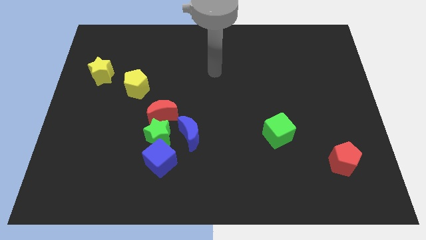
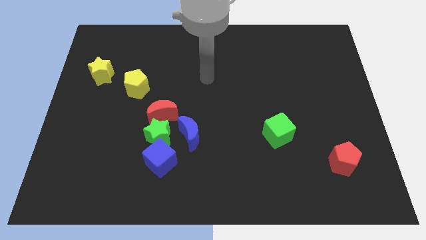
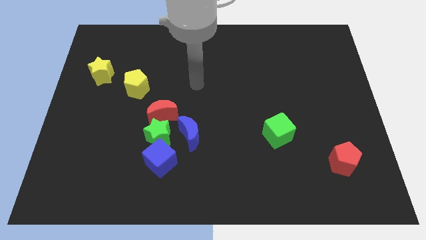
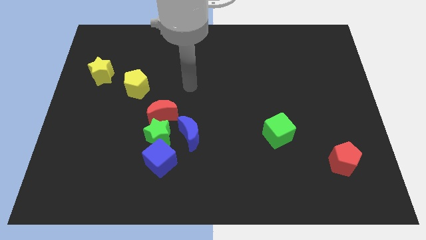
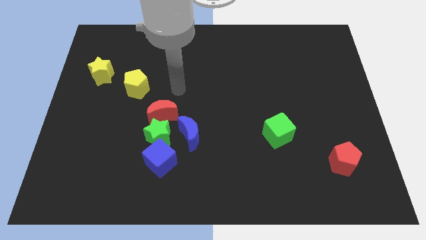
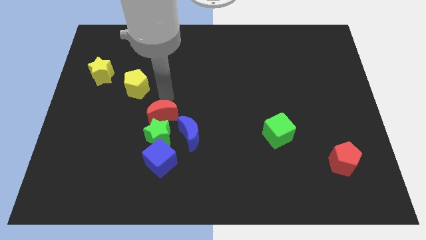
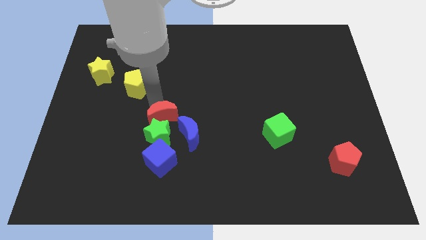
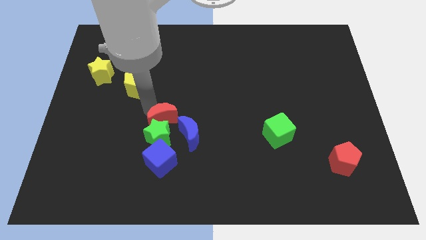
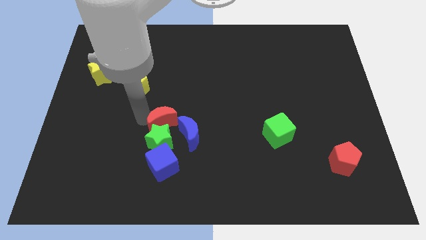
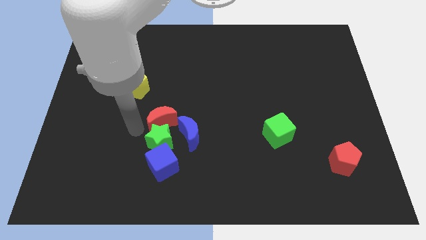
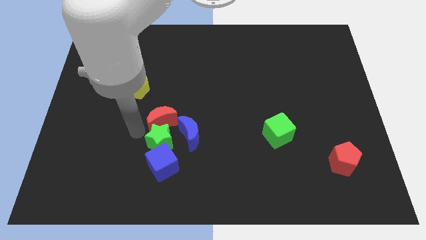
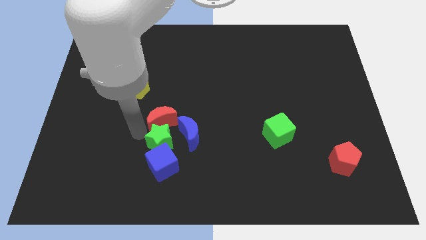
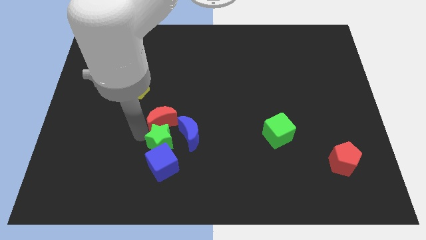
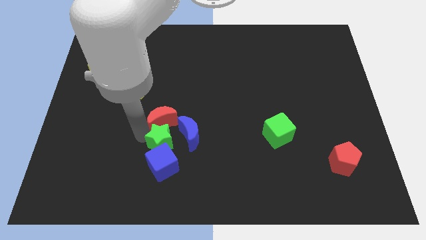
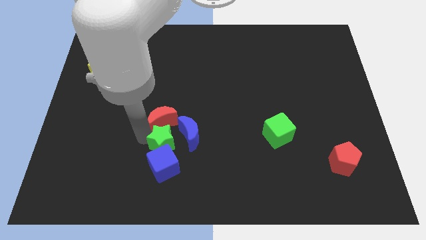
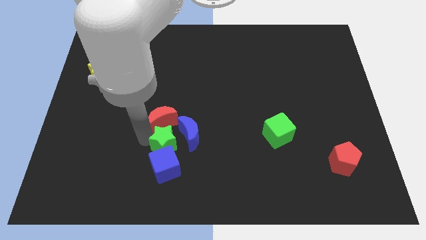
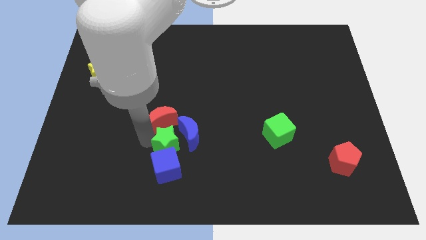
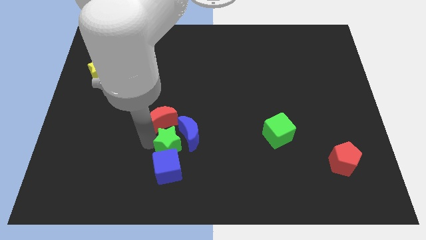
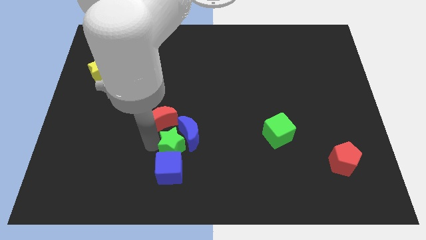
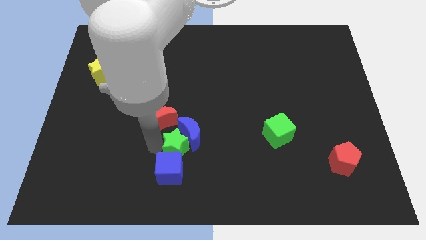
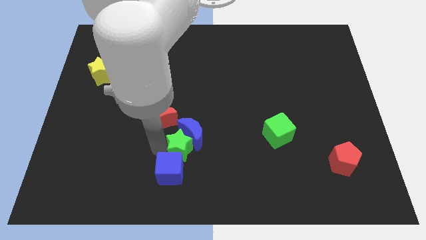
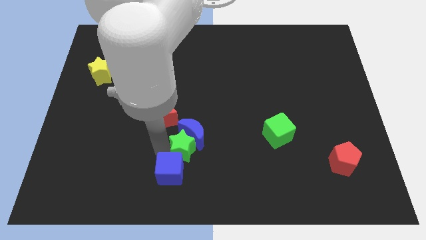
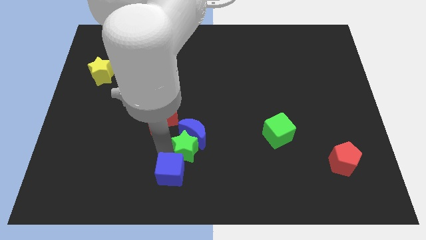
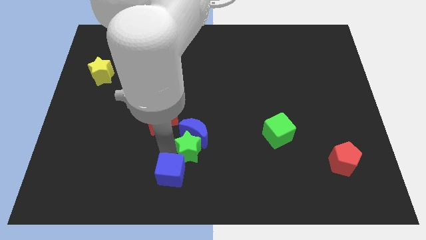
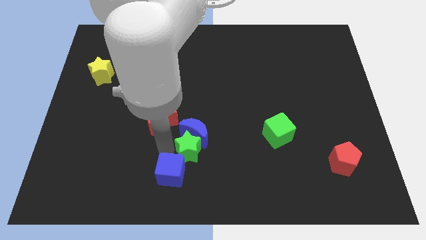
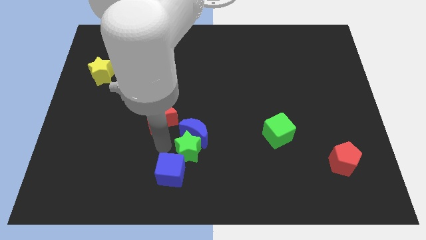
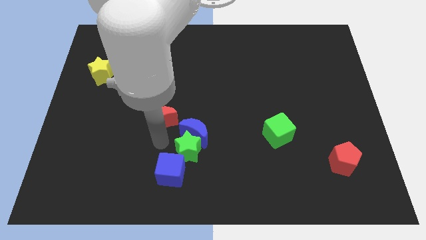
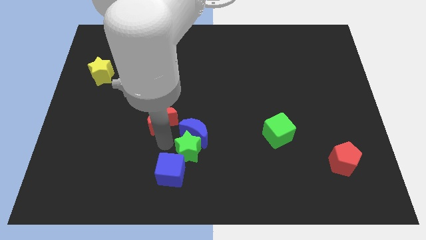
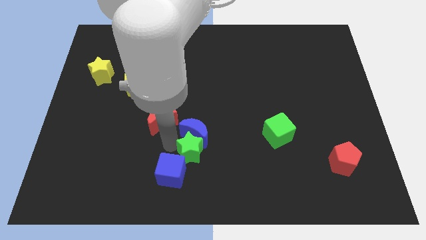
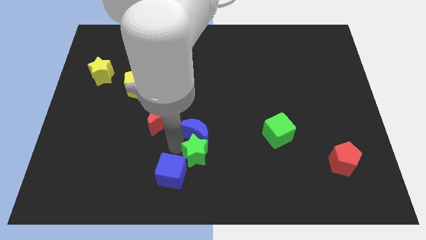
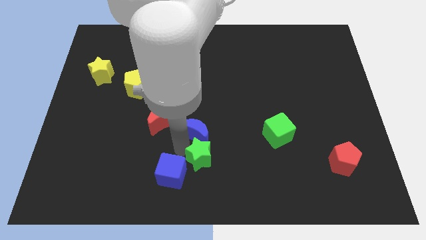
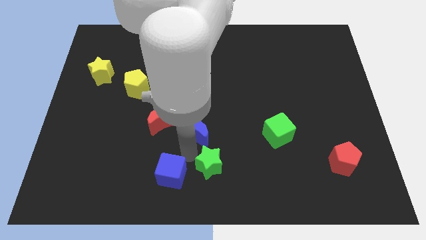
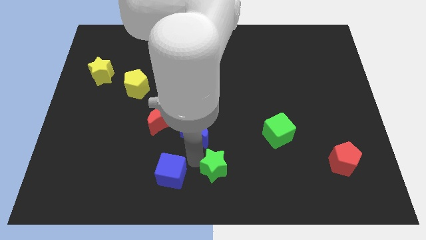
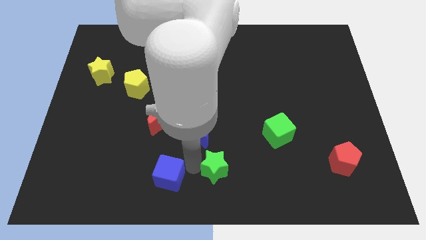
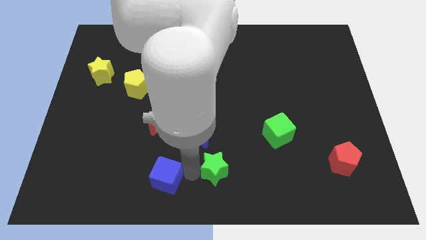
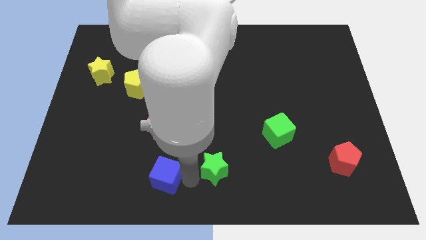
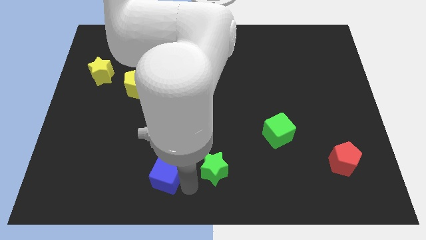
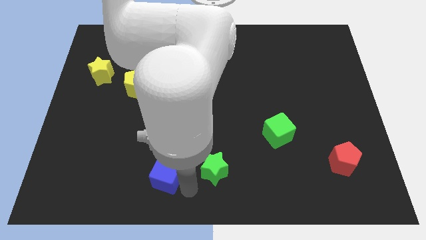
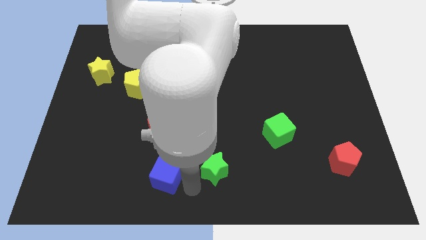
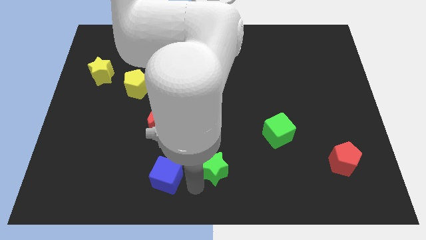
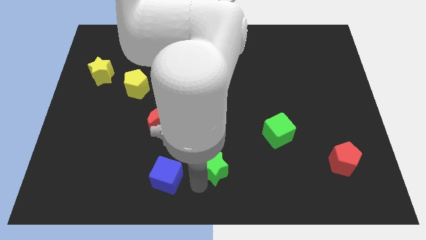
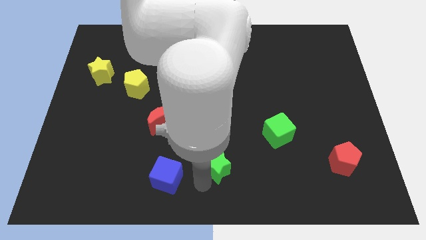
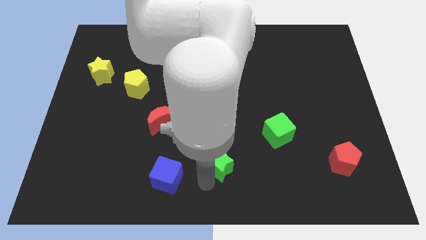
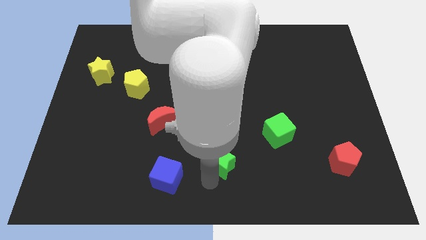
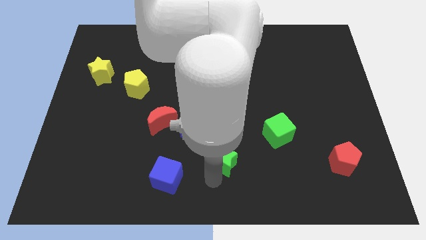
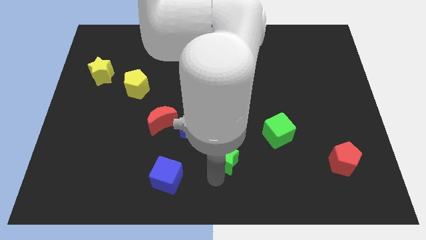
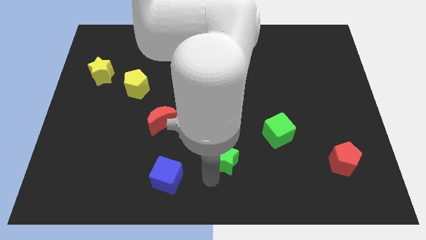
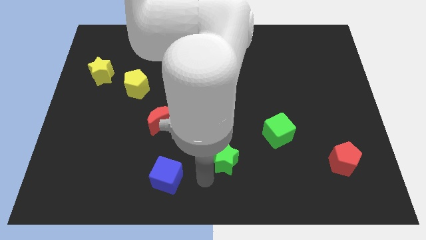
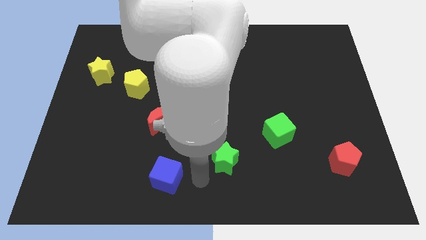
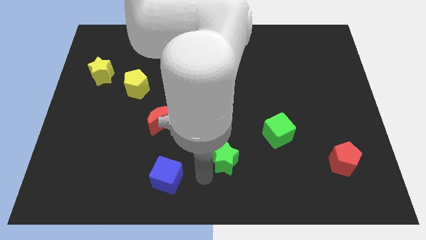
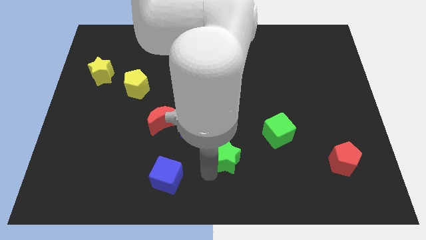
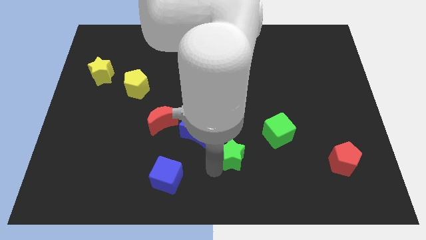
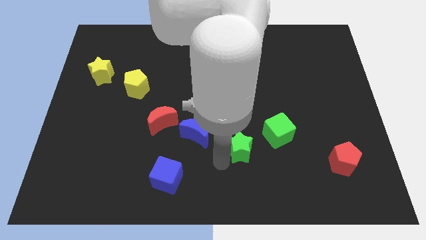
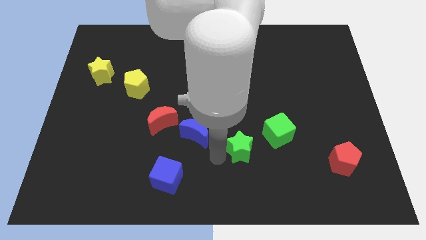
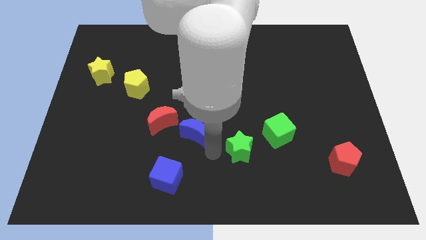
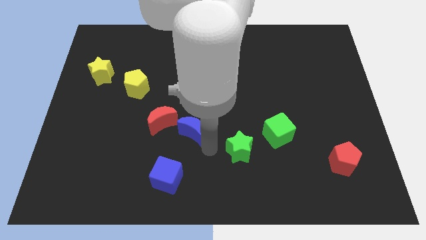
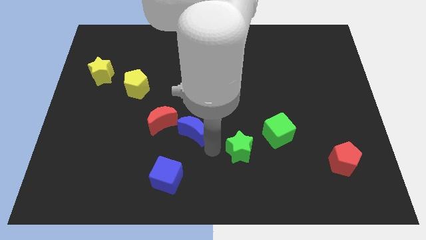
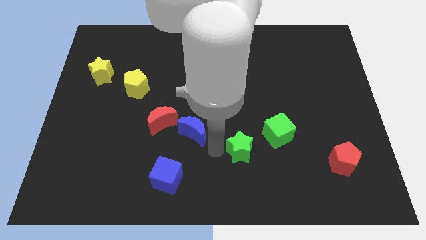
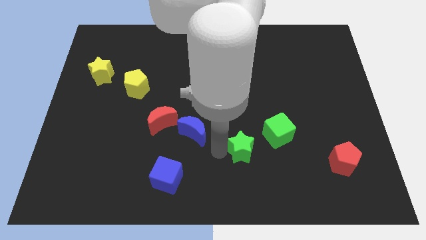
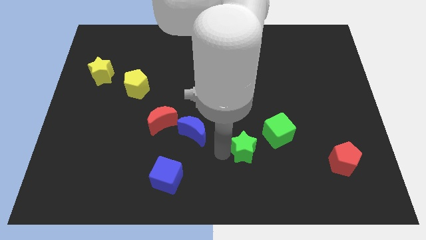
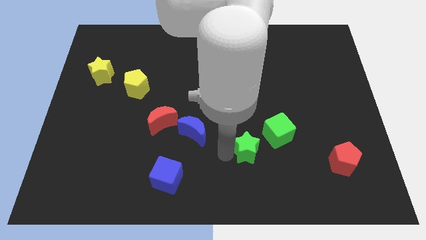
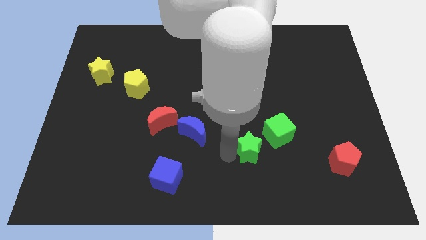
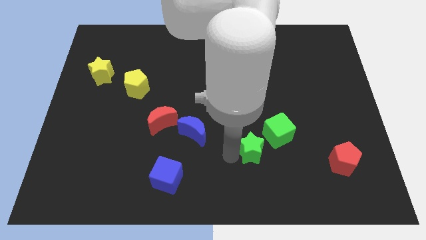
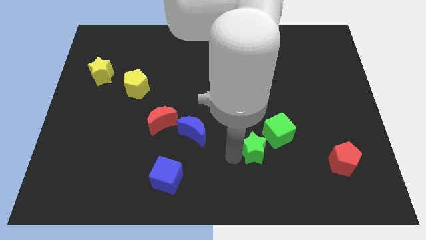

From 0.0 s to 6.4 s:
push the green star right

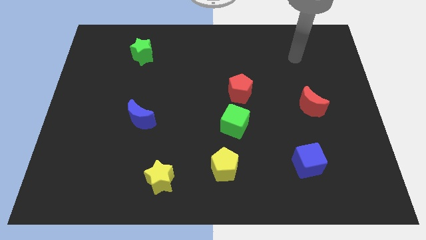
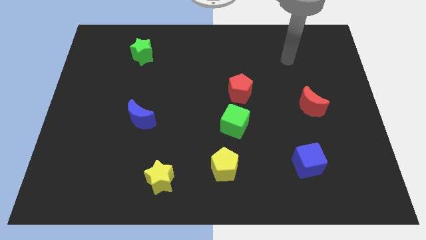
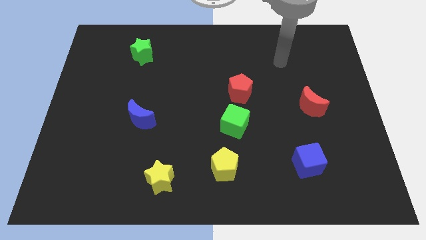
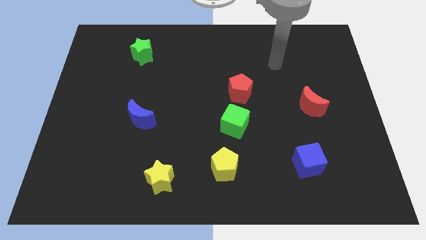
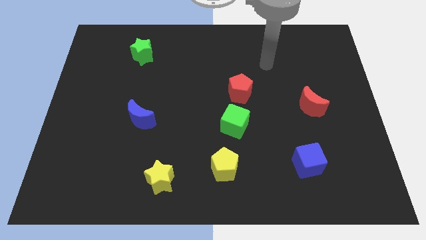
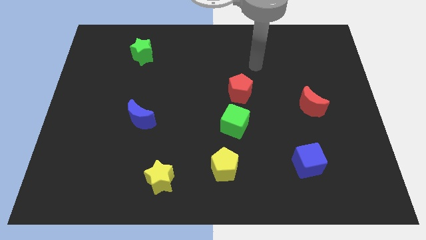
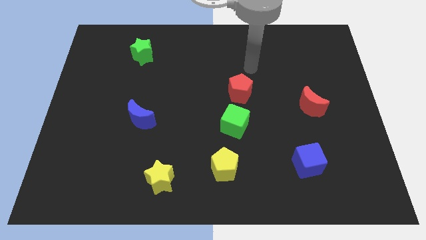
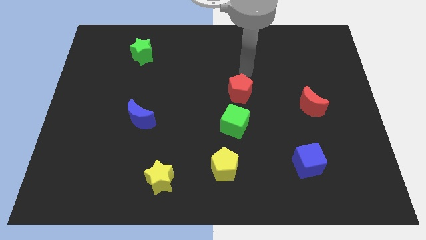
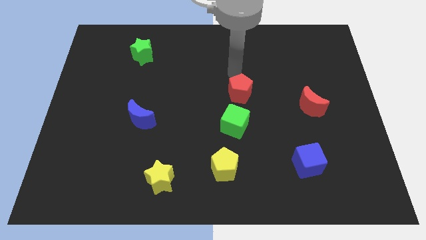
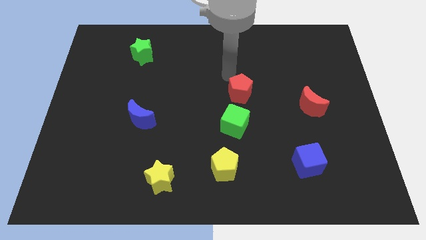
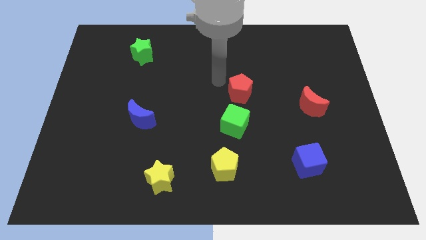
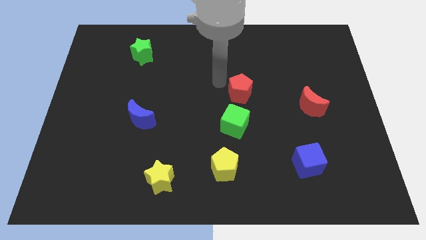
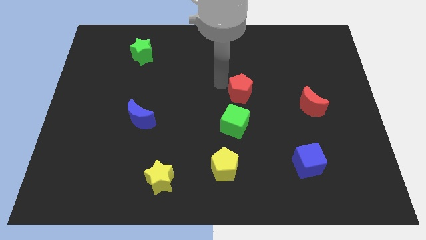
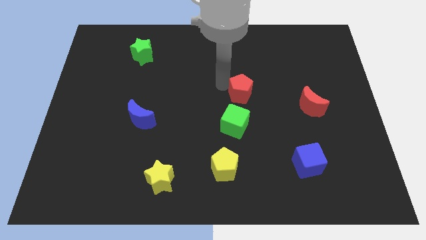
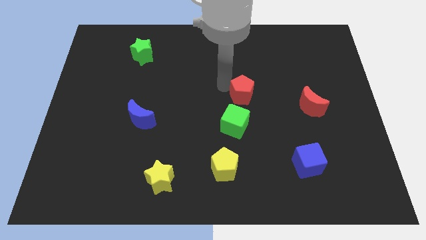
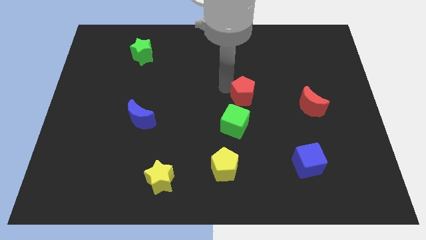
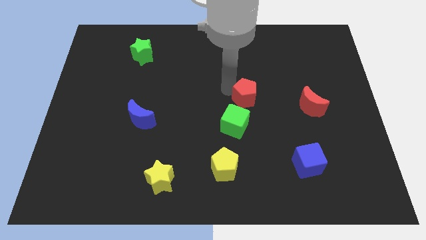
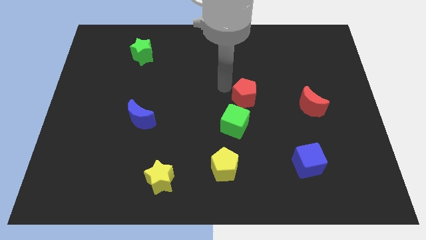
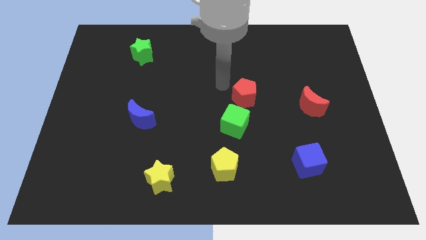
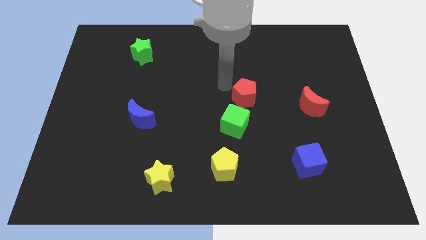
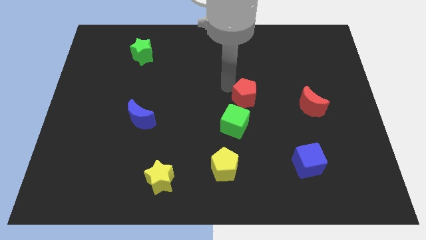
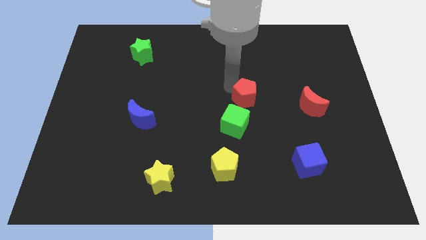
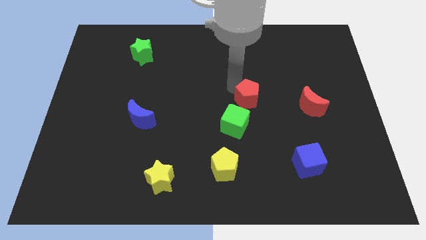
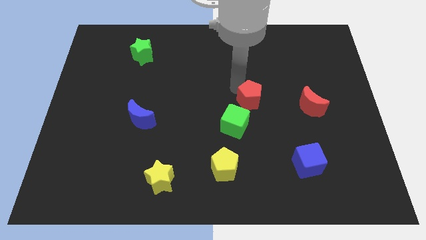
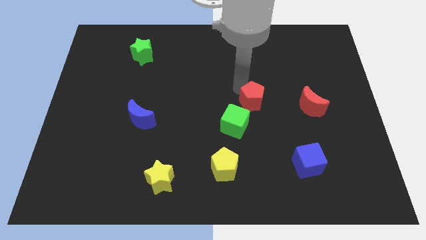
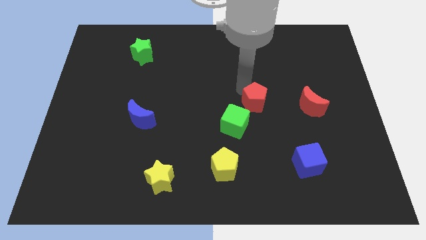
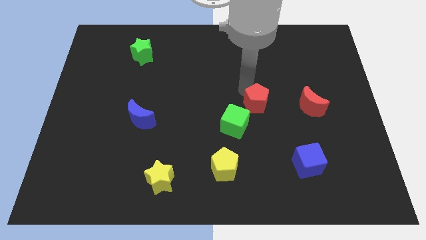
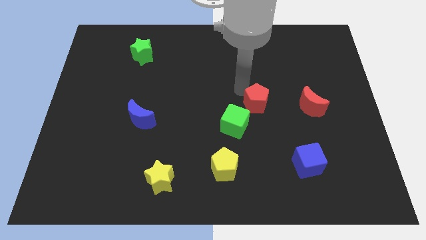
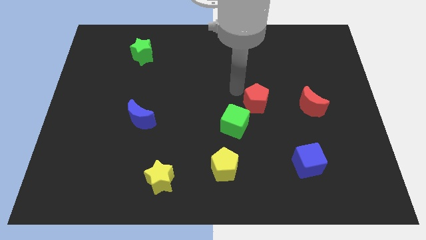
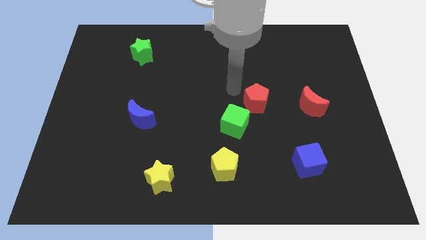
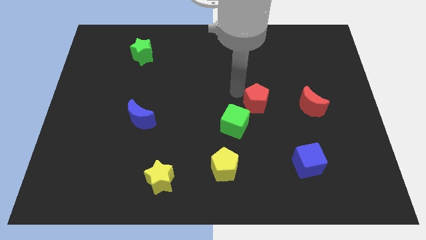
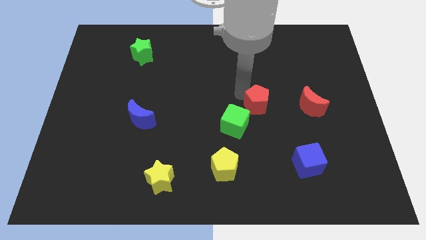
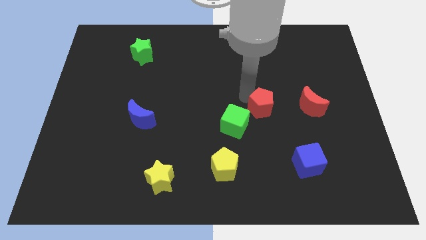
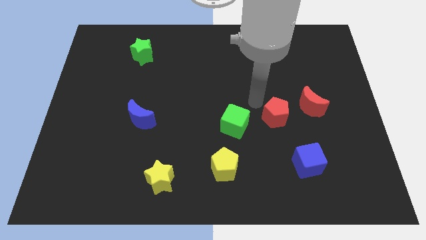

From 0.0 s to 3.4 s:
slightly push the red pentagon downwards and then to the right
